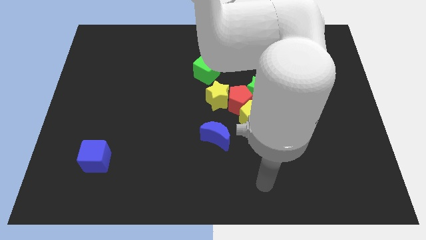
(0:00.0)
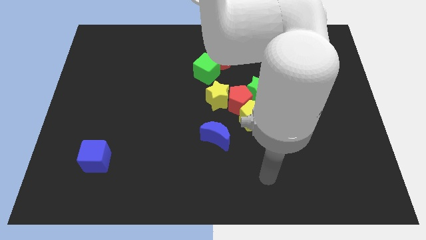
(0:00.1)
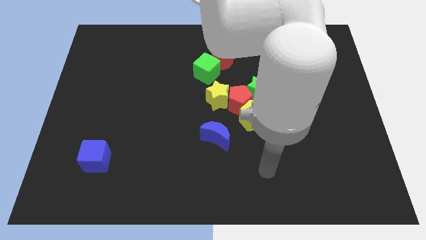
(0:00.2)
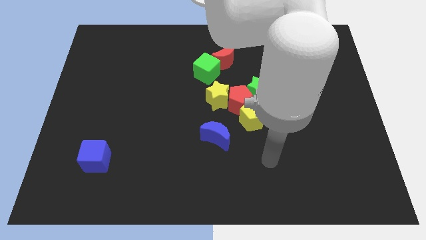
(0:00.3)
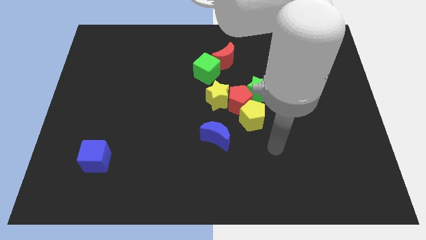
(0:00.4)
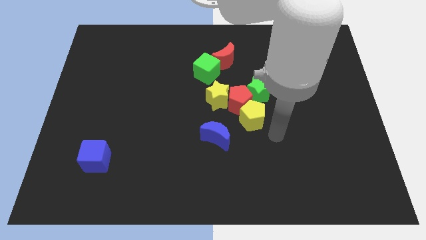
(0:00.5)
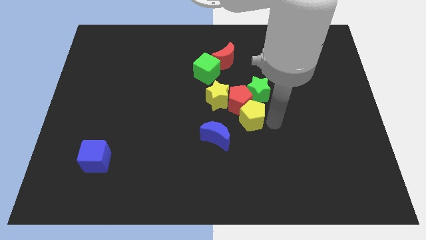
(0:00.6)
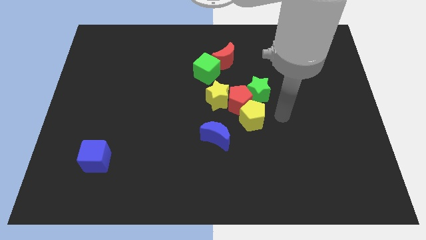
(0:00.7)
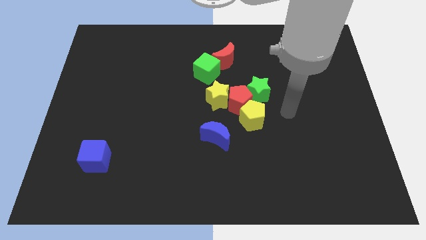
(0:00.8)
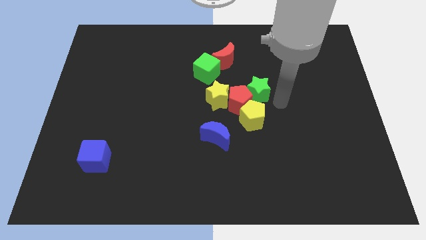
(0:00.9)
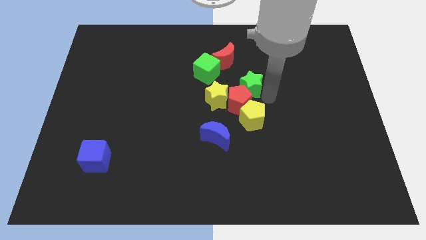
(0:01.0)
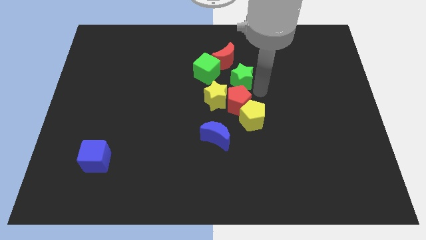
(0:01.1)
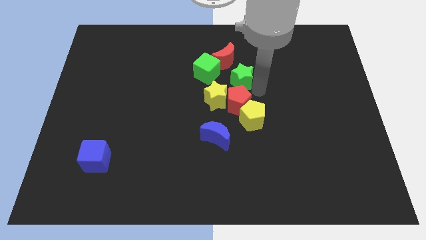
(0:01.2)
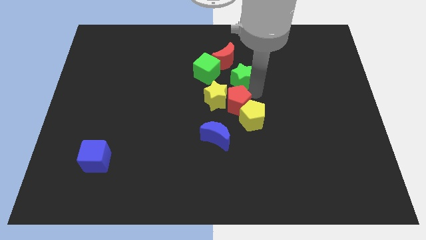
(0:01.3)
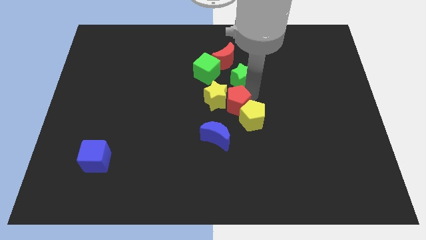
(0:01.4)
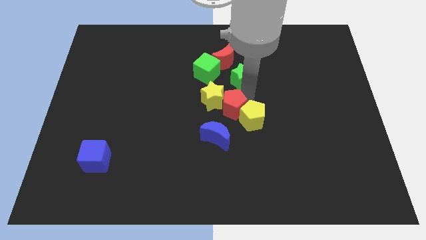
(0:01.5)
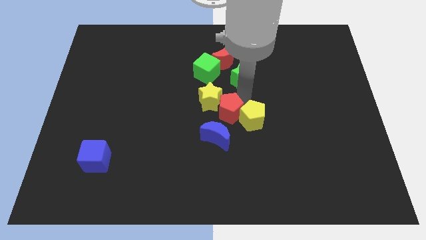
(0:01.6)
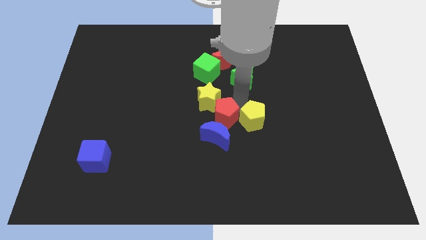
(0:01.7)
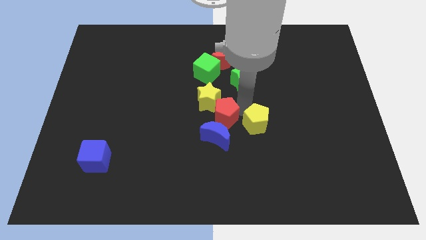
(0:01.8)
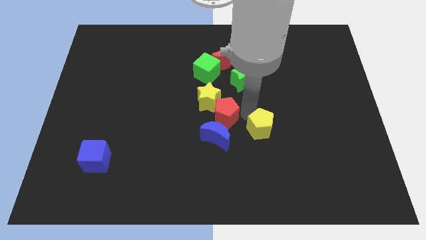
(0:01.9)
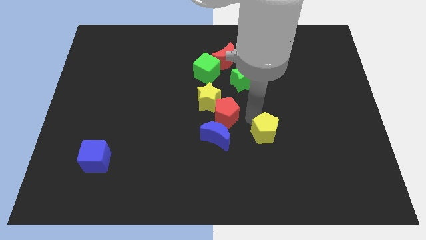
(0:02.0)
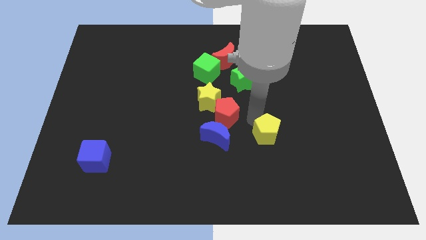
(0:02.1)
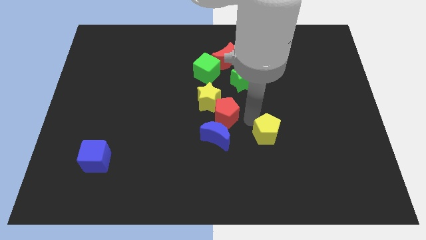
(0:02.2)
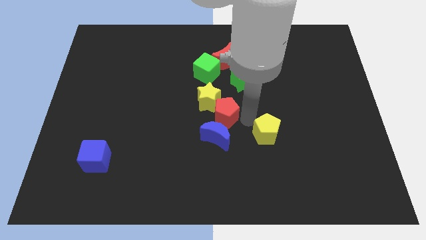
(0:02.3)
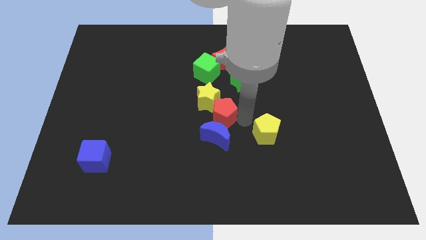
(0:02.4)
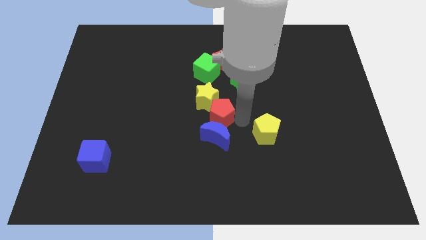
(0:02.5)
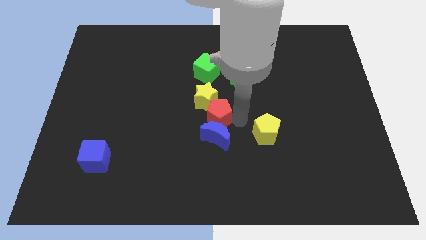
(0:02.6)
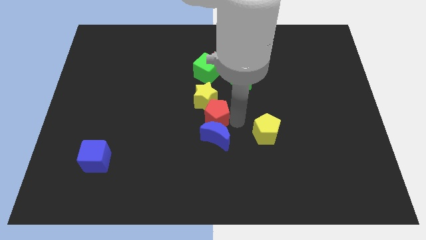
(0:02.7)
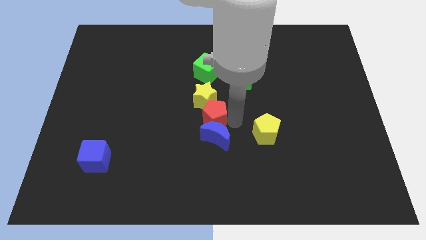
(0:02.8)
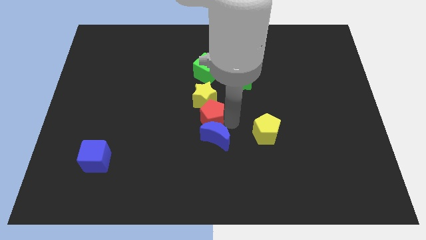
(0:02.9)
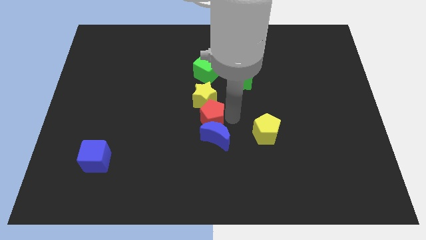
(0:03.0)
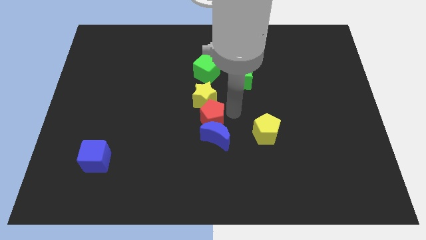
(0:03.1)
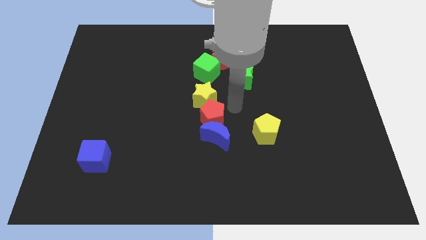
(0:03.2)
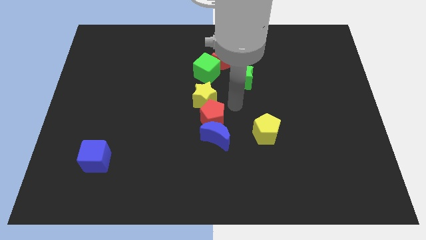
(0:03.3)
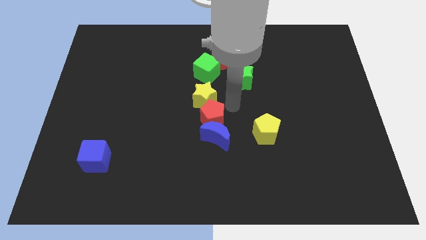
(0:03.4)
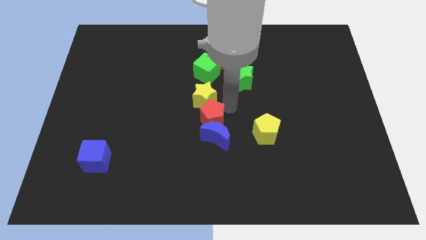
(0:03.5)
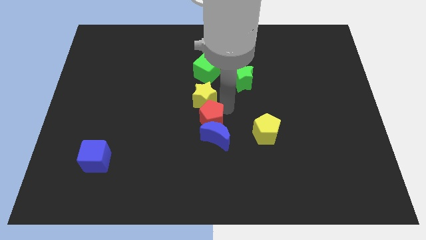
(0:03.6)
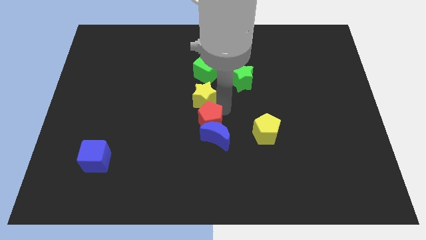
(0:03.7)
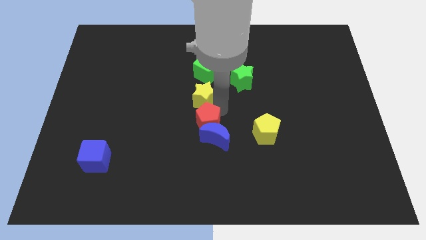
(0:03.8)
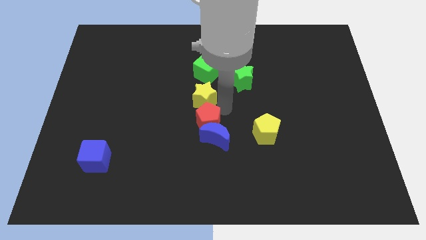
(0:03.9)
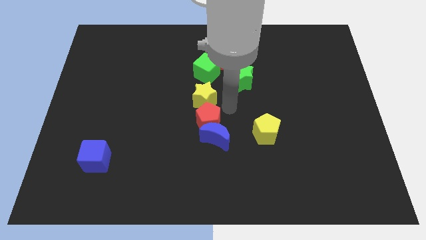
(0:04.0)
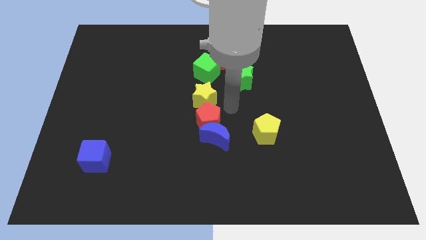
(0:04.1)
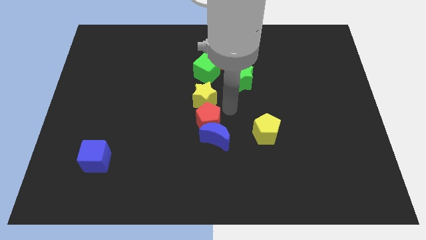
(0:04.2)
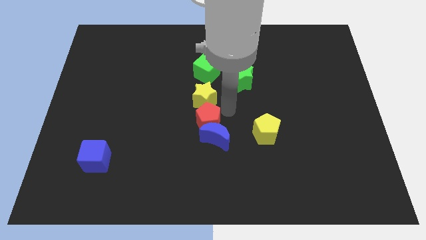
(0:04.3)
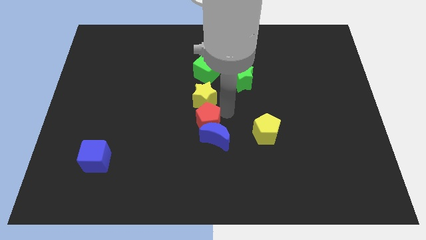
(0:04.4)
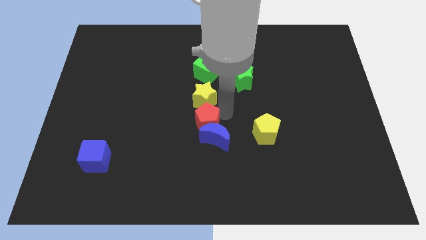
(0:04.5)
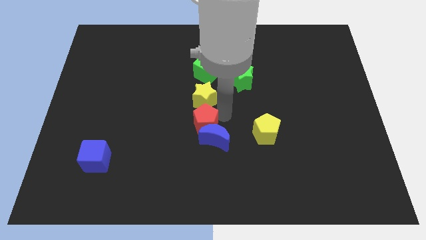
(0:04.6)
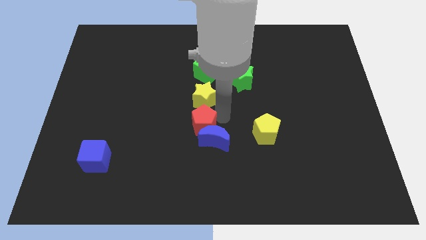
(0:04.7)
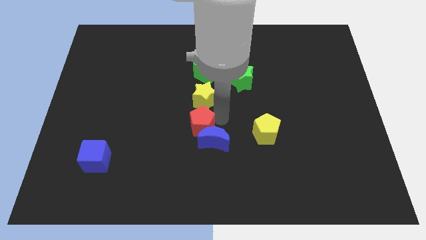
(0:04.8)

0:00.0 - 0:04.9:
pull the red pentagon apart from the green star, yellow pentagon, and yellow star

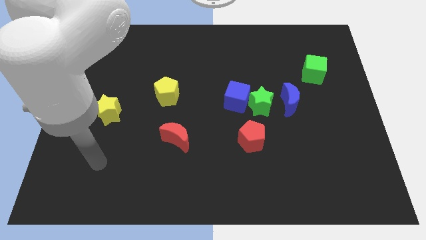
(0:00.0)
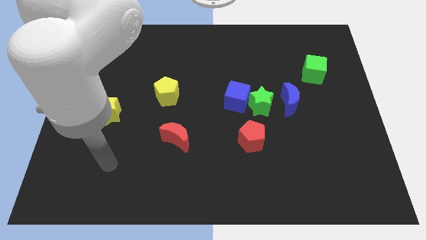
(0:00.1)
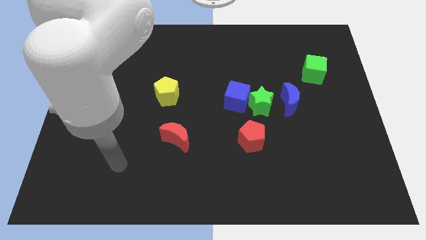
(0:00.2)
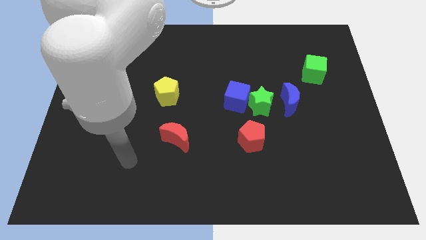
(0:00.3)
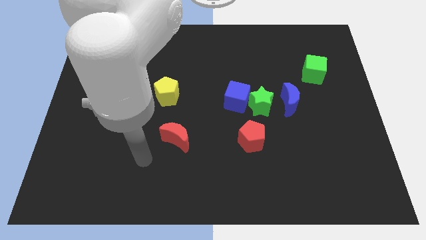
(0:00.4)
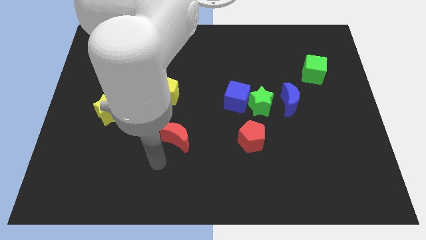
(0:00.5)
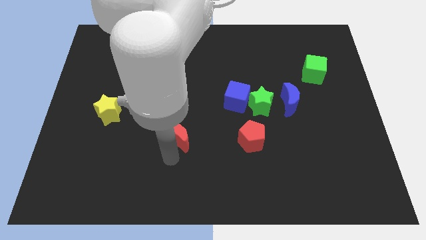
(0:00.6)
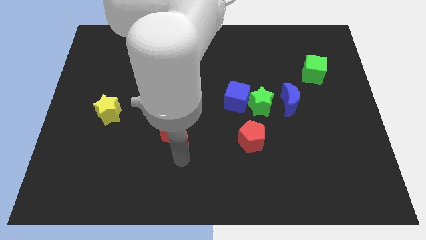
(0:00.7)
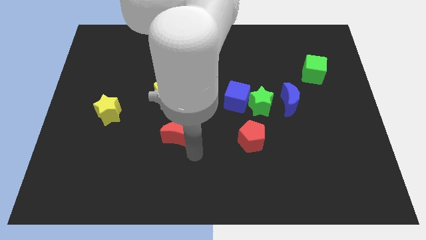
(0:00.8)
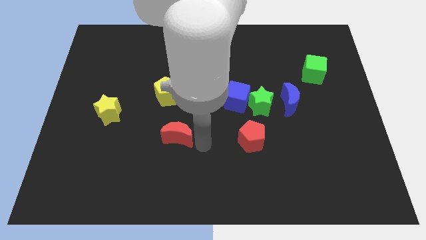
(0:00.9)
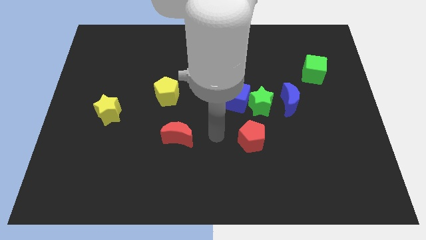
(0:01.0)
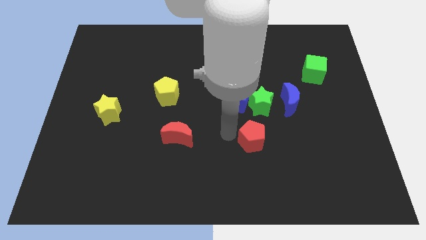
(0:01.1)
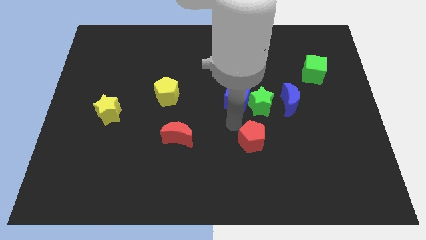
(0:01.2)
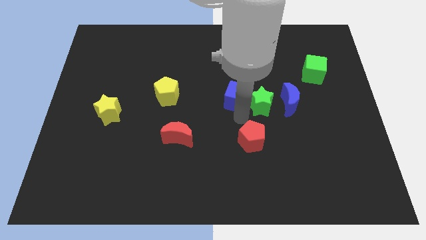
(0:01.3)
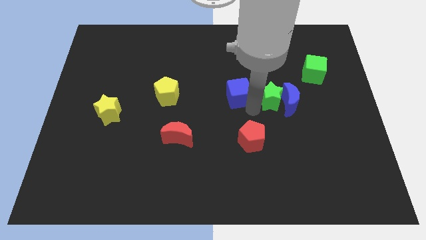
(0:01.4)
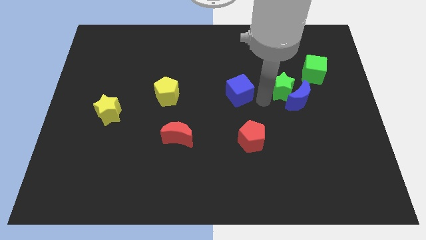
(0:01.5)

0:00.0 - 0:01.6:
move the blue cube away from the green star

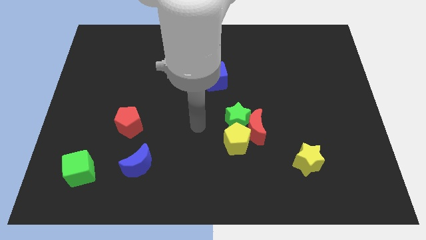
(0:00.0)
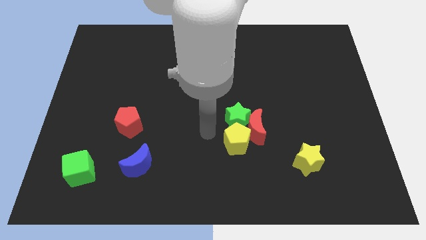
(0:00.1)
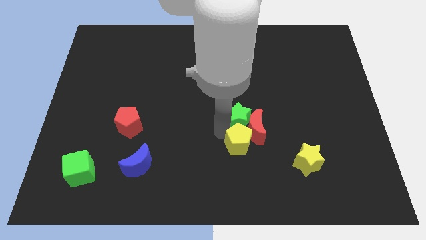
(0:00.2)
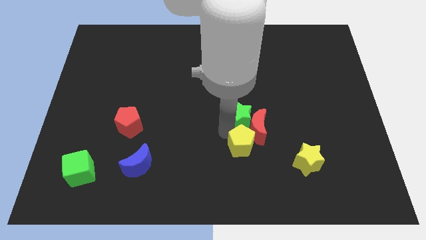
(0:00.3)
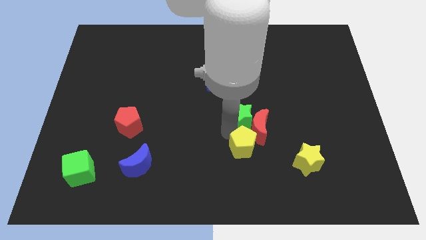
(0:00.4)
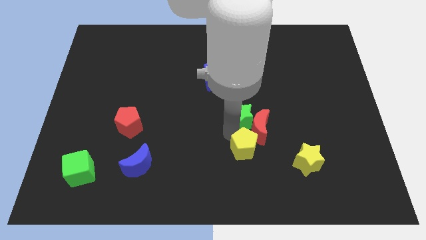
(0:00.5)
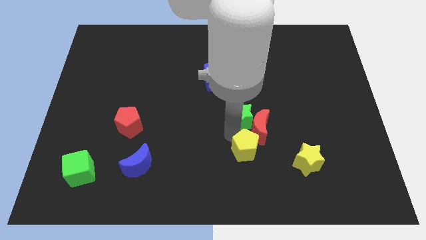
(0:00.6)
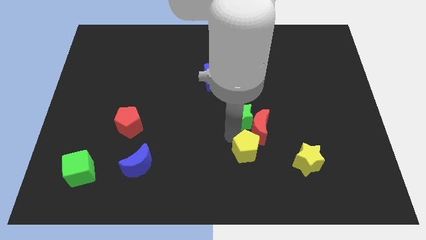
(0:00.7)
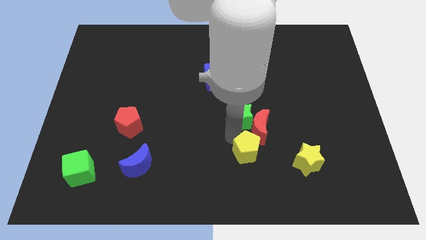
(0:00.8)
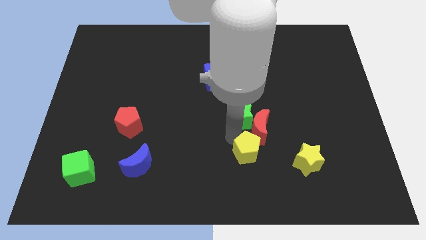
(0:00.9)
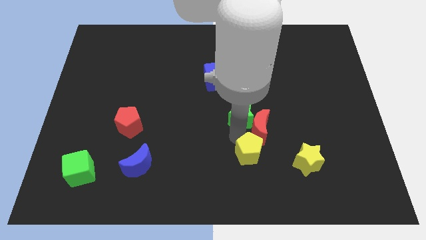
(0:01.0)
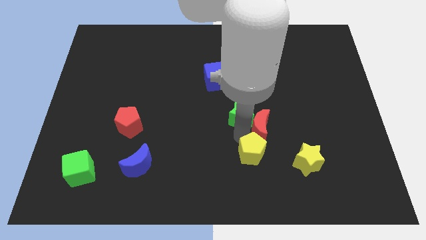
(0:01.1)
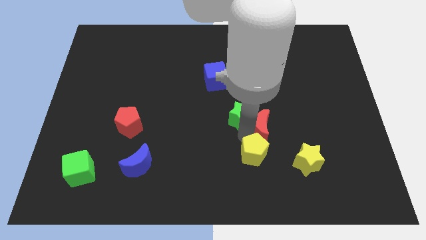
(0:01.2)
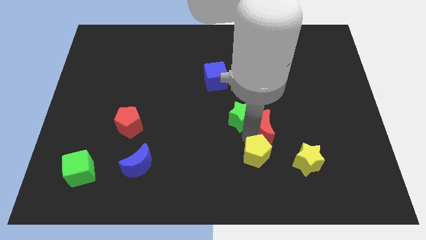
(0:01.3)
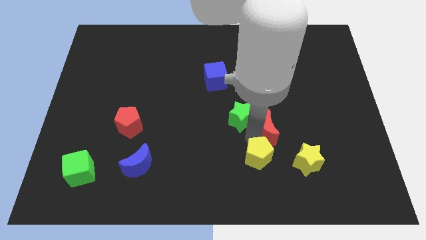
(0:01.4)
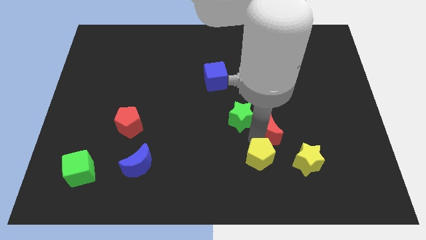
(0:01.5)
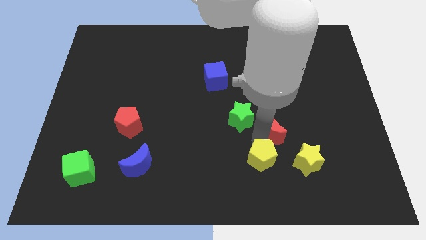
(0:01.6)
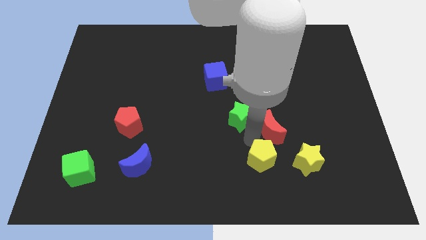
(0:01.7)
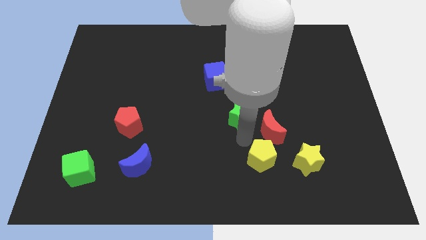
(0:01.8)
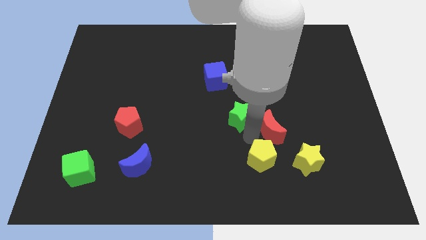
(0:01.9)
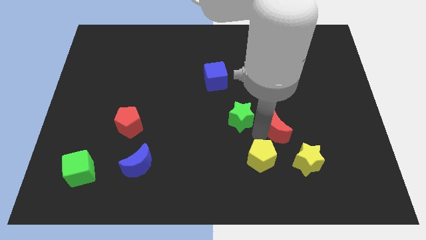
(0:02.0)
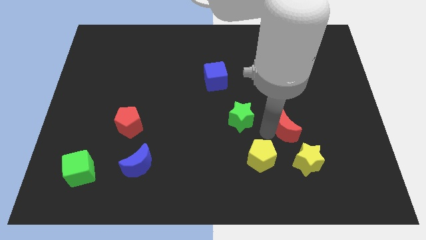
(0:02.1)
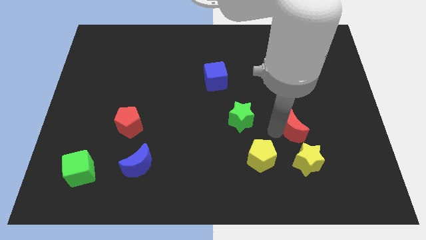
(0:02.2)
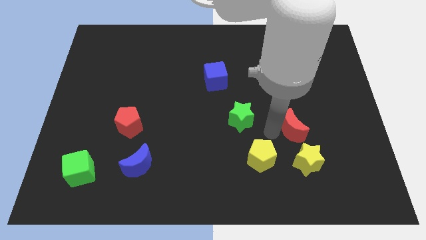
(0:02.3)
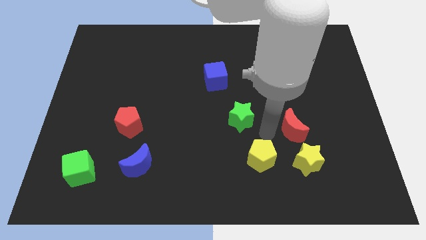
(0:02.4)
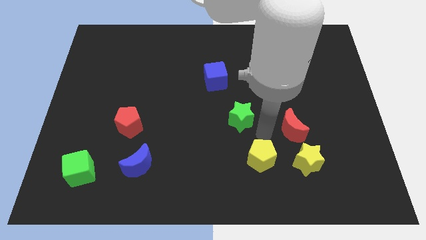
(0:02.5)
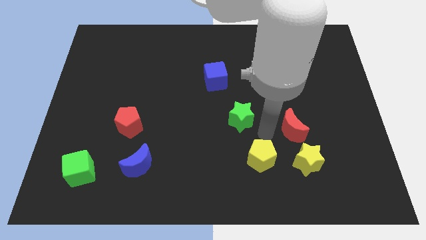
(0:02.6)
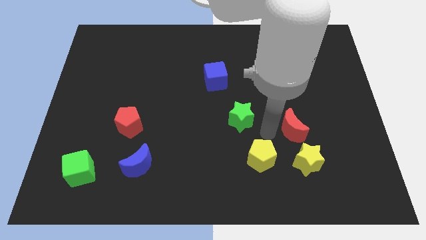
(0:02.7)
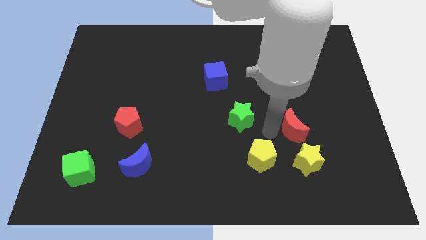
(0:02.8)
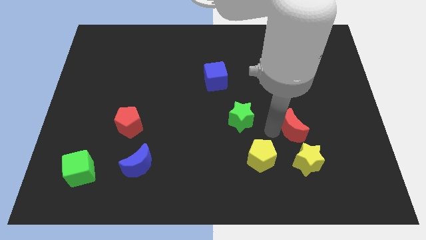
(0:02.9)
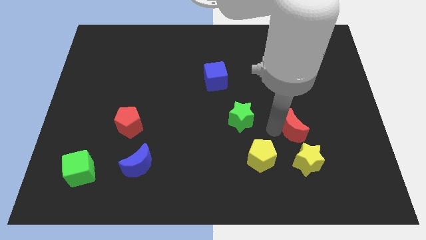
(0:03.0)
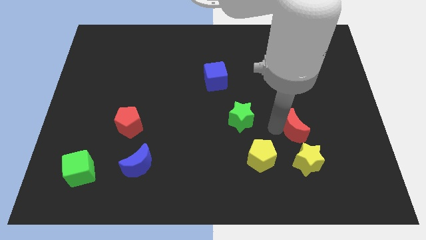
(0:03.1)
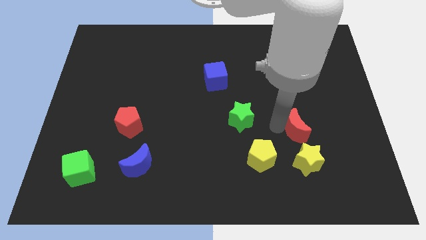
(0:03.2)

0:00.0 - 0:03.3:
move the red moon away from the green star and yellow pentagon
